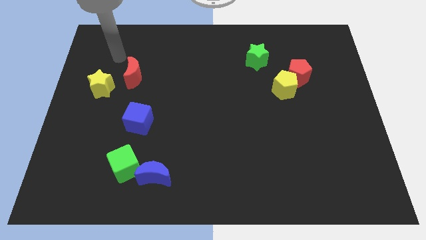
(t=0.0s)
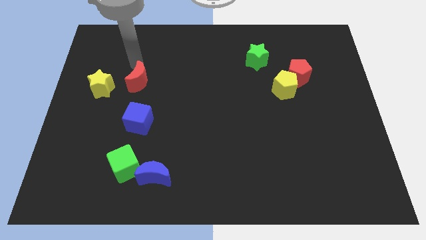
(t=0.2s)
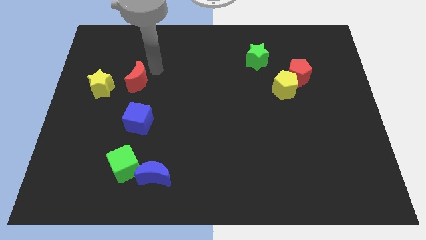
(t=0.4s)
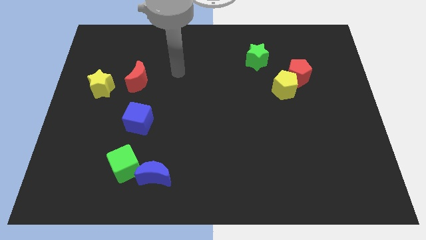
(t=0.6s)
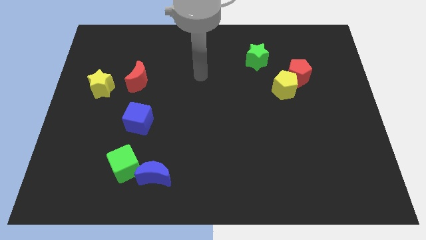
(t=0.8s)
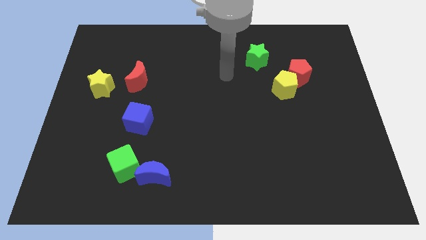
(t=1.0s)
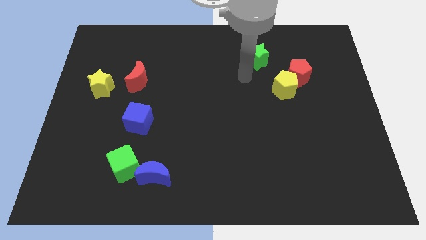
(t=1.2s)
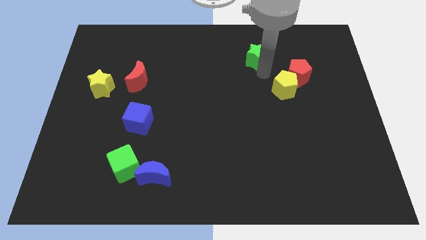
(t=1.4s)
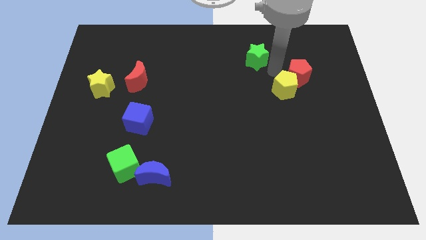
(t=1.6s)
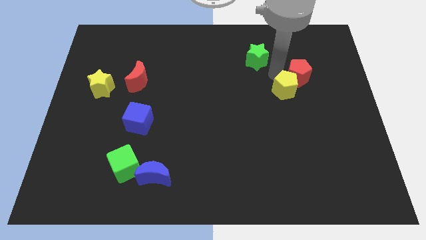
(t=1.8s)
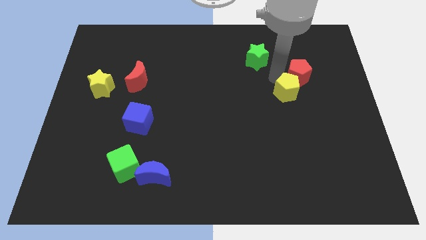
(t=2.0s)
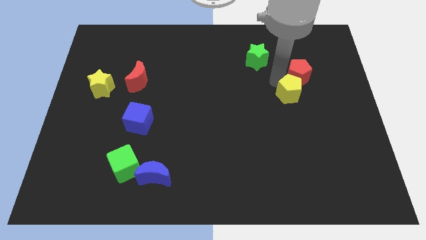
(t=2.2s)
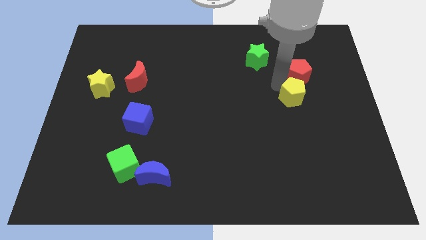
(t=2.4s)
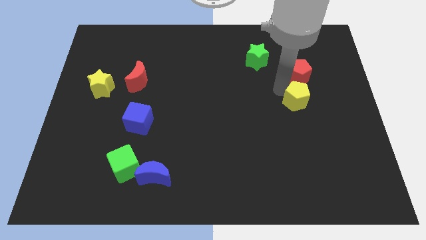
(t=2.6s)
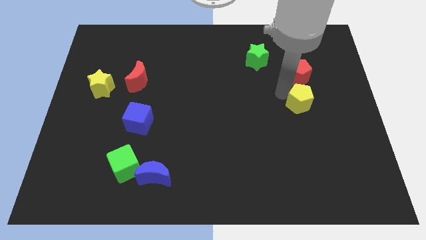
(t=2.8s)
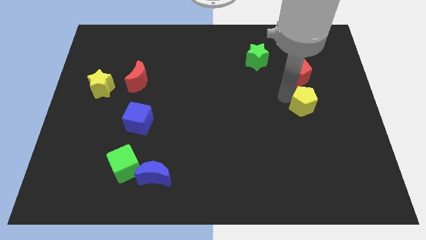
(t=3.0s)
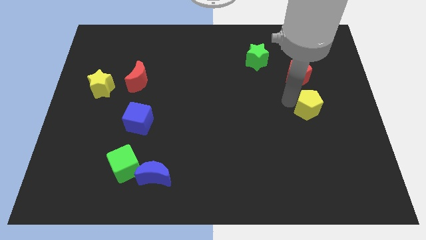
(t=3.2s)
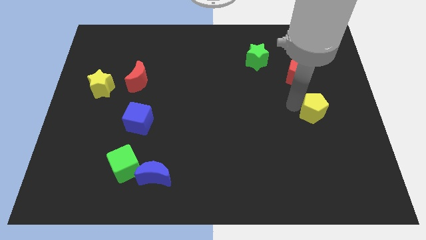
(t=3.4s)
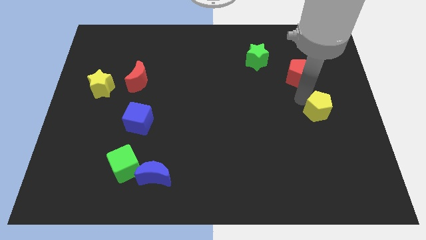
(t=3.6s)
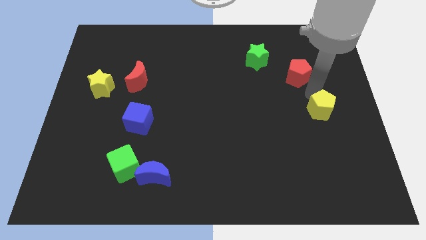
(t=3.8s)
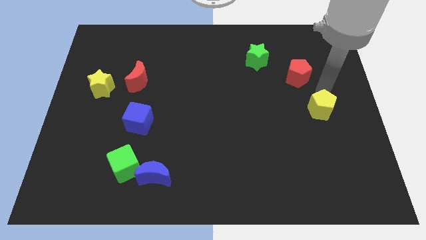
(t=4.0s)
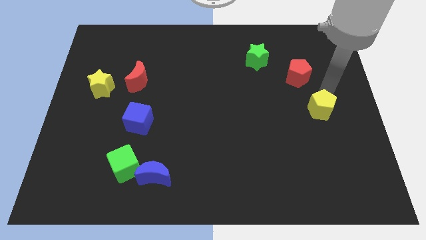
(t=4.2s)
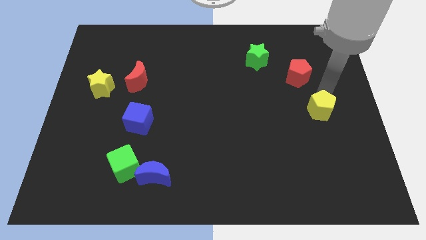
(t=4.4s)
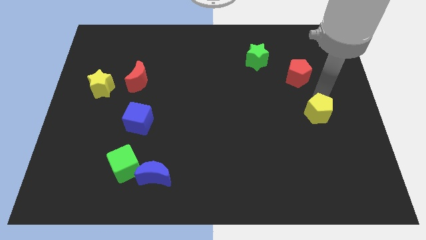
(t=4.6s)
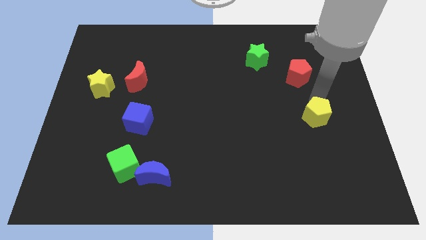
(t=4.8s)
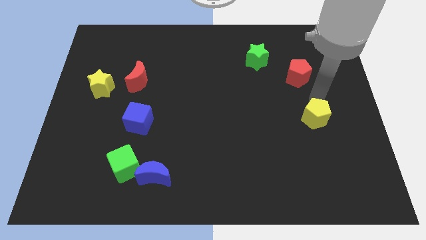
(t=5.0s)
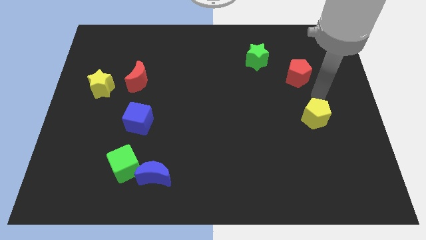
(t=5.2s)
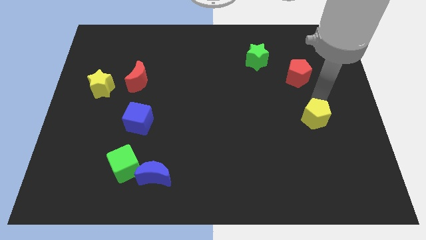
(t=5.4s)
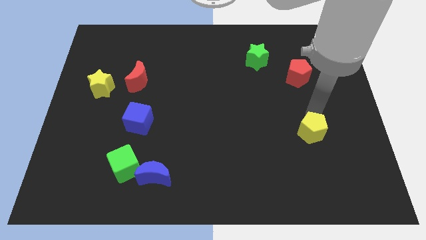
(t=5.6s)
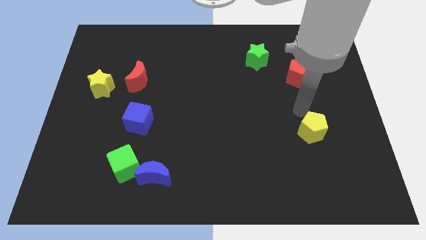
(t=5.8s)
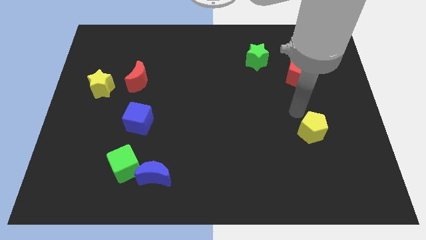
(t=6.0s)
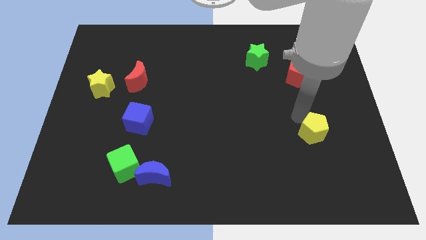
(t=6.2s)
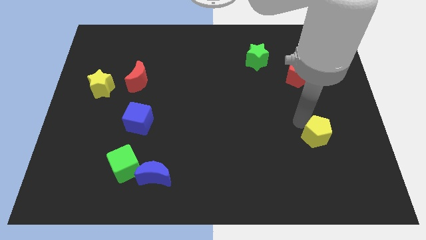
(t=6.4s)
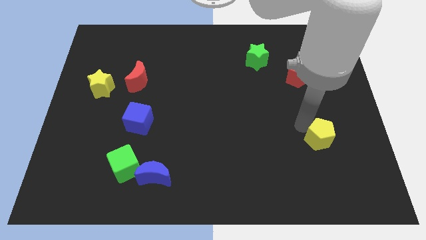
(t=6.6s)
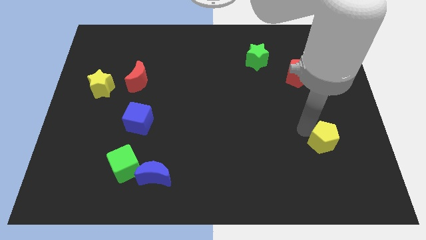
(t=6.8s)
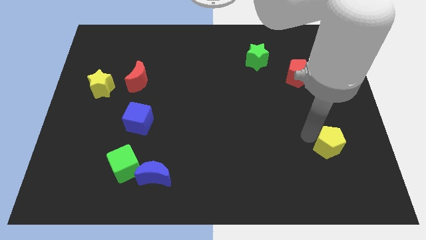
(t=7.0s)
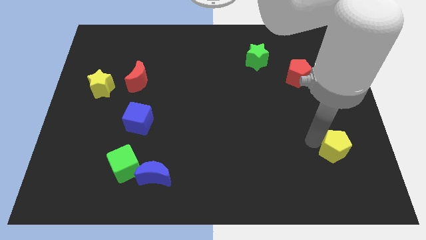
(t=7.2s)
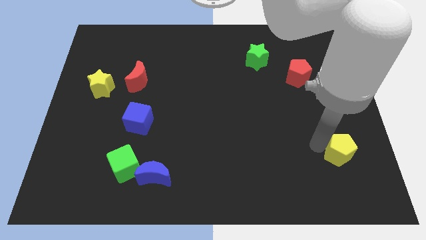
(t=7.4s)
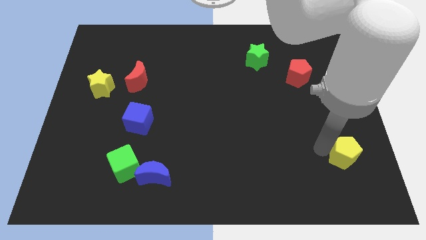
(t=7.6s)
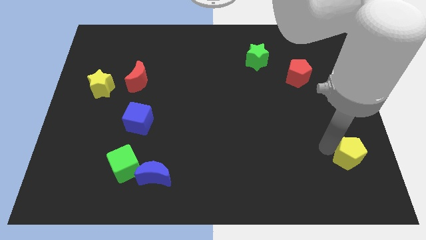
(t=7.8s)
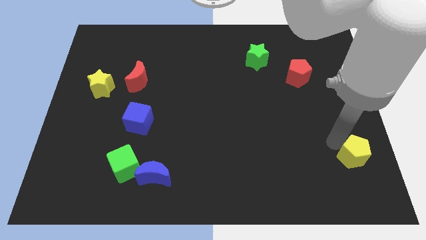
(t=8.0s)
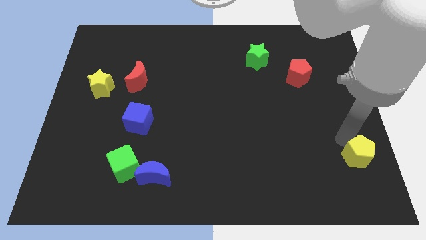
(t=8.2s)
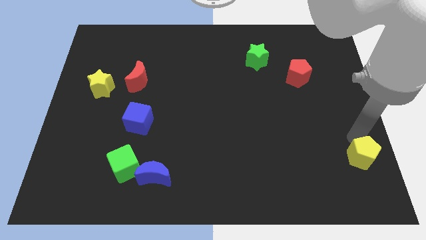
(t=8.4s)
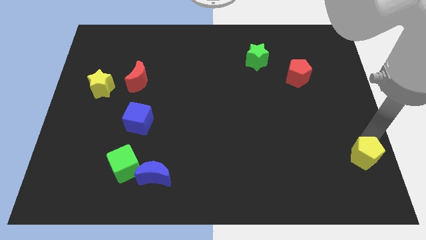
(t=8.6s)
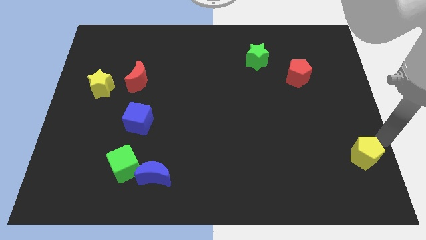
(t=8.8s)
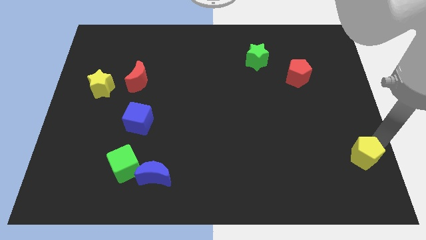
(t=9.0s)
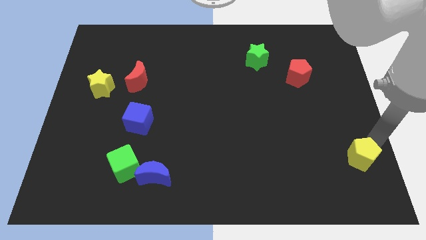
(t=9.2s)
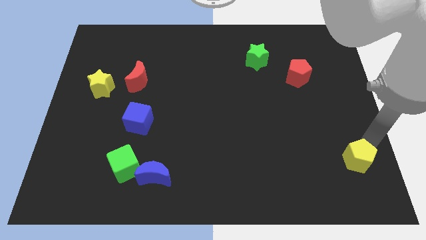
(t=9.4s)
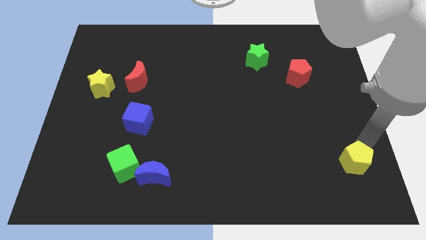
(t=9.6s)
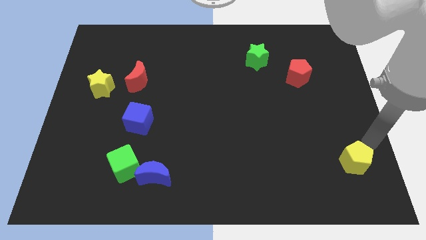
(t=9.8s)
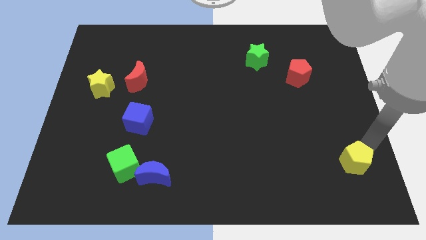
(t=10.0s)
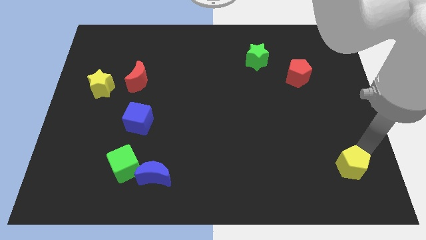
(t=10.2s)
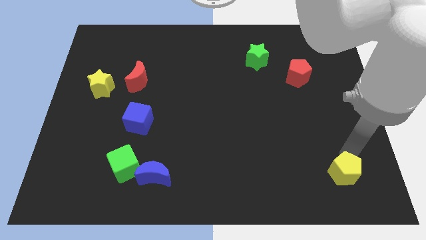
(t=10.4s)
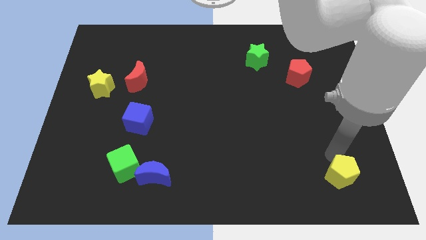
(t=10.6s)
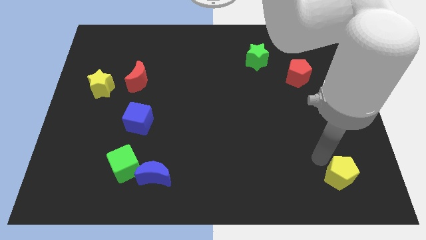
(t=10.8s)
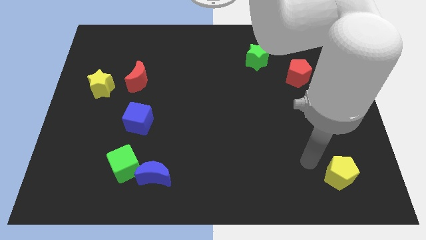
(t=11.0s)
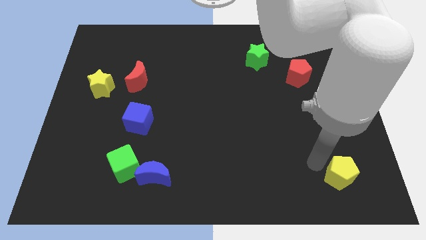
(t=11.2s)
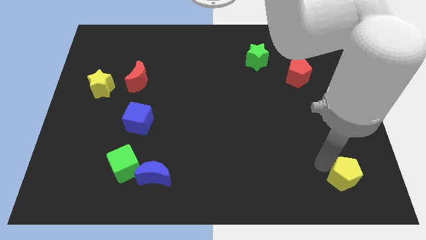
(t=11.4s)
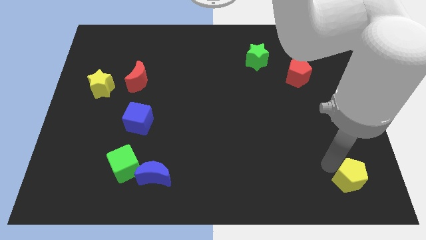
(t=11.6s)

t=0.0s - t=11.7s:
push the yellow pentagon to the bottom right of the board
